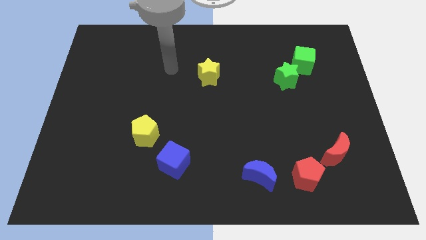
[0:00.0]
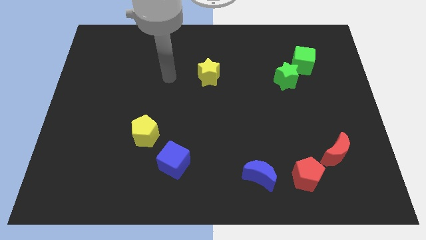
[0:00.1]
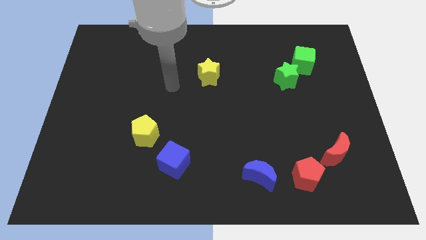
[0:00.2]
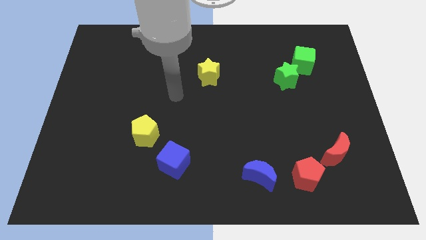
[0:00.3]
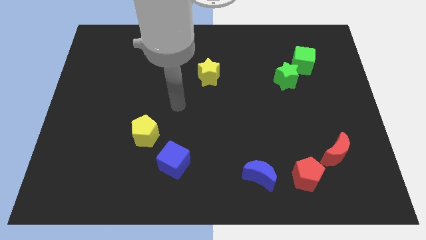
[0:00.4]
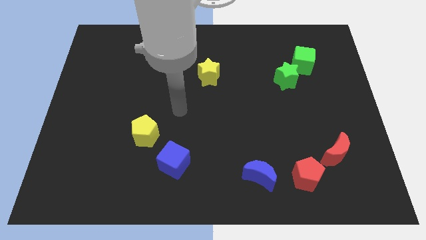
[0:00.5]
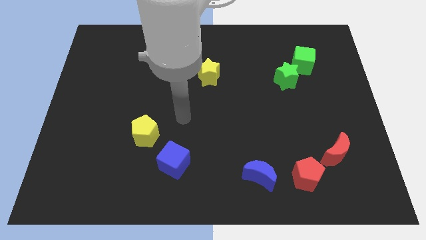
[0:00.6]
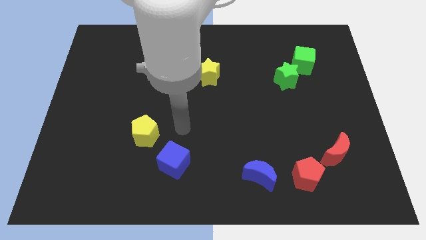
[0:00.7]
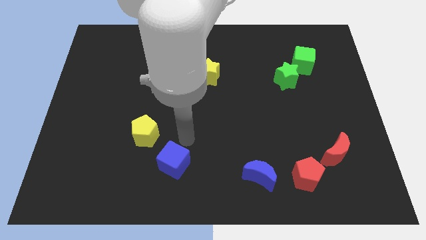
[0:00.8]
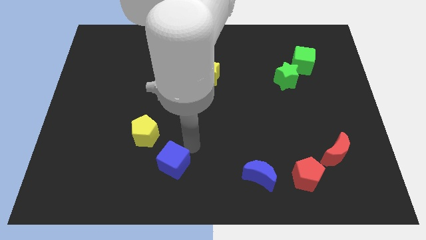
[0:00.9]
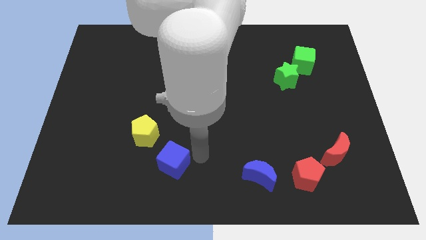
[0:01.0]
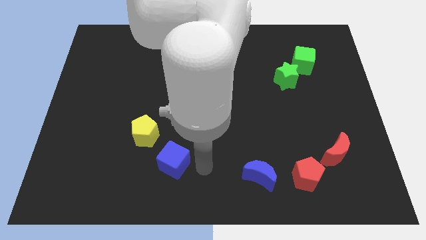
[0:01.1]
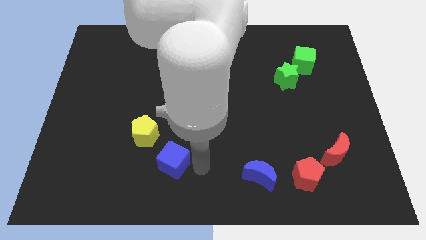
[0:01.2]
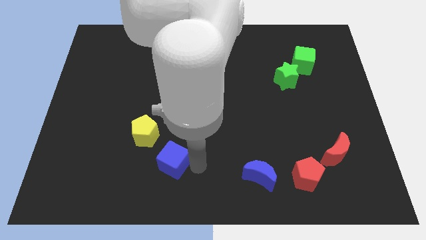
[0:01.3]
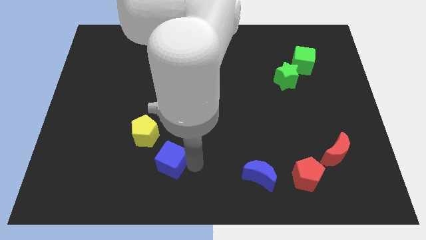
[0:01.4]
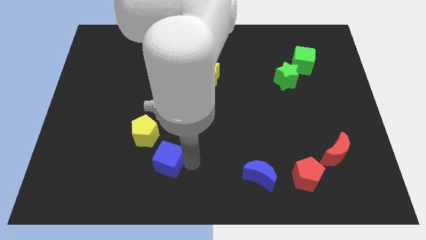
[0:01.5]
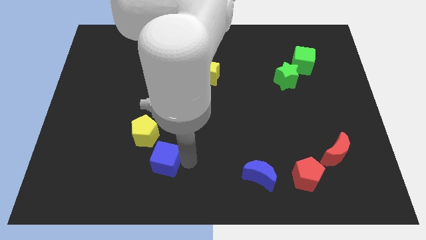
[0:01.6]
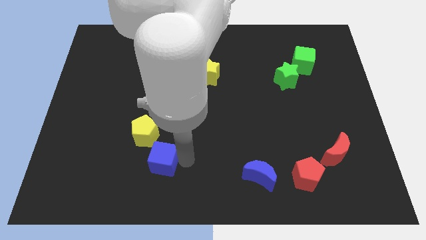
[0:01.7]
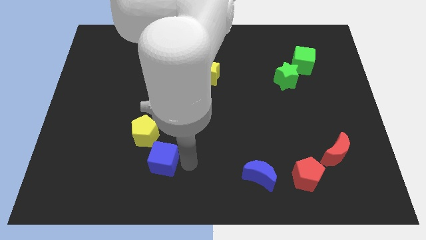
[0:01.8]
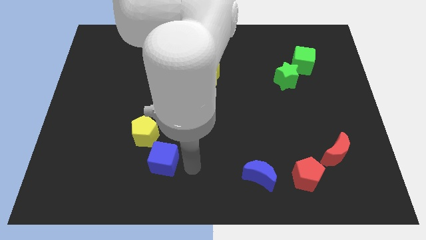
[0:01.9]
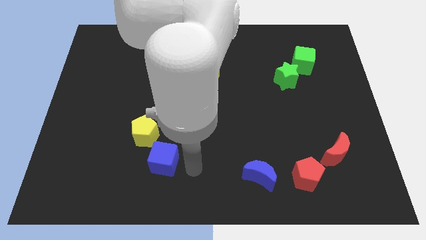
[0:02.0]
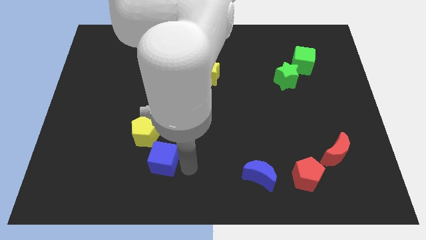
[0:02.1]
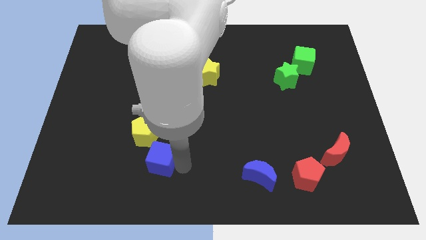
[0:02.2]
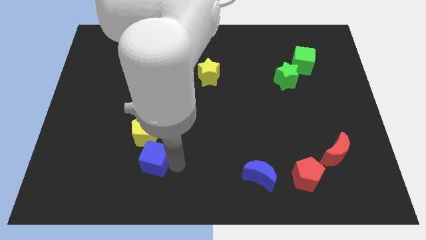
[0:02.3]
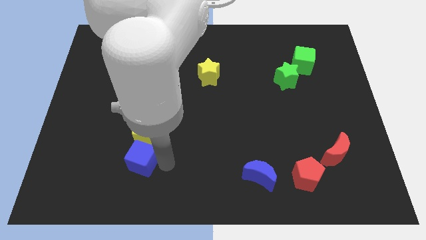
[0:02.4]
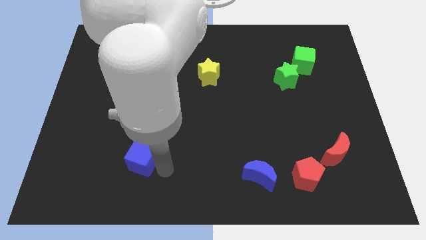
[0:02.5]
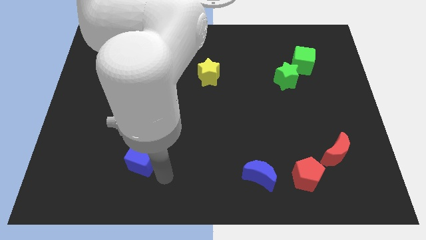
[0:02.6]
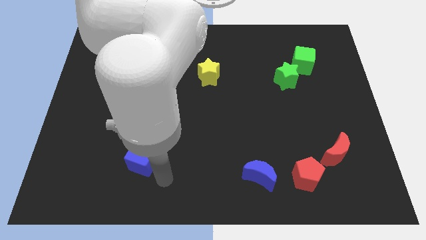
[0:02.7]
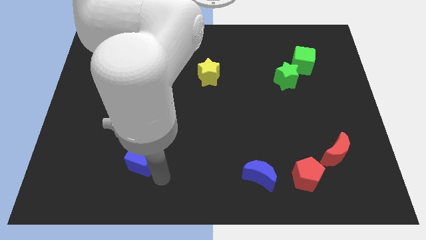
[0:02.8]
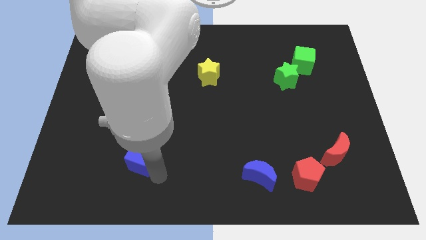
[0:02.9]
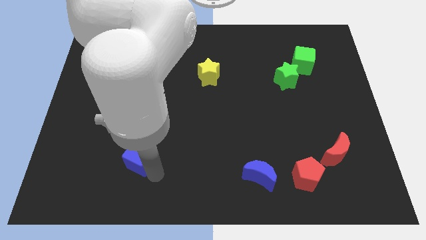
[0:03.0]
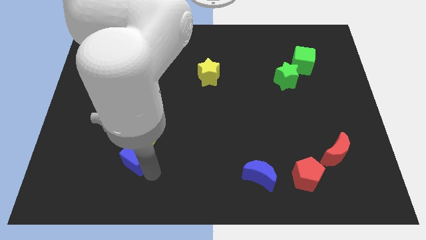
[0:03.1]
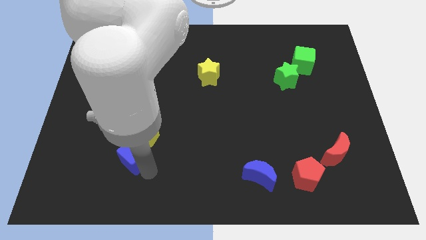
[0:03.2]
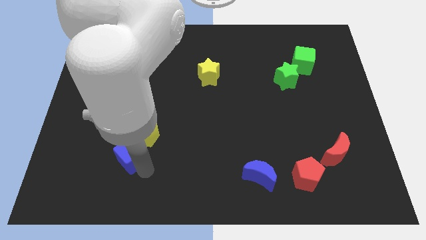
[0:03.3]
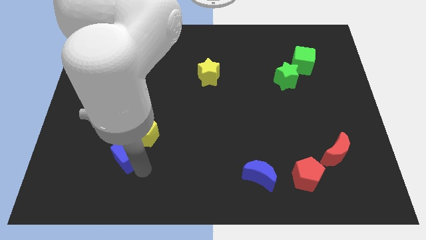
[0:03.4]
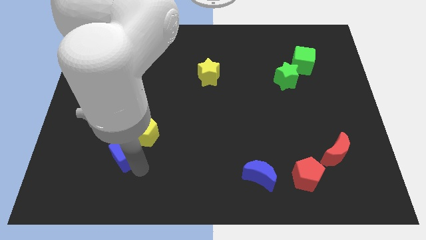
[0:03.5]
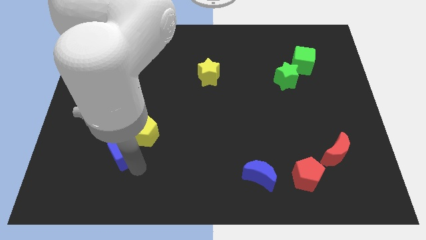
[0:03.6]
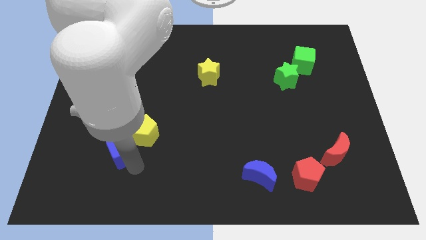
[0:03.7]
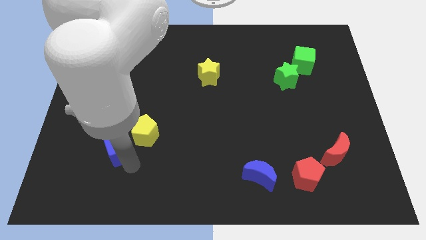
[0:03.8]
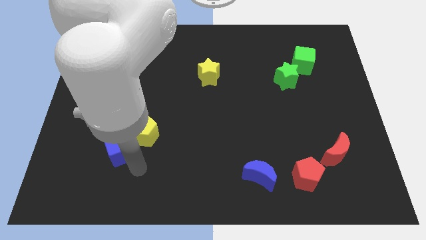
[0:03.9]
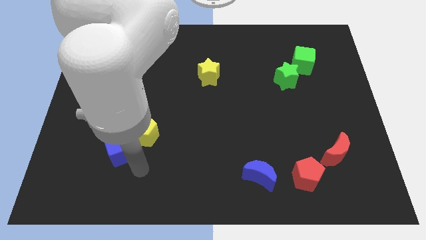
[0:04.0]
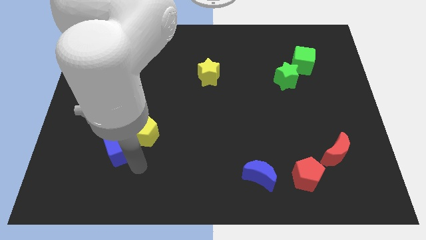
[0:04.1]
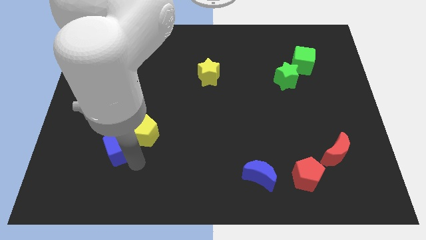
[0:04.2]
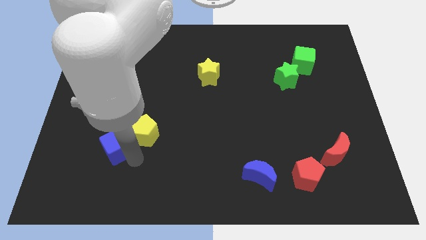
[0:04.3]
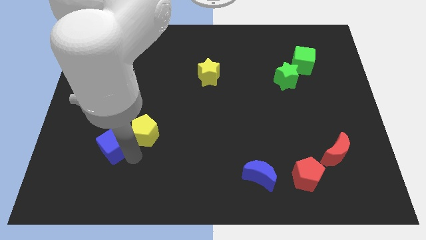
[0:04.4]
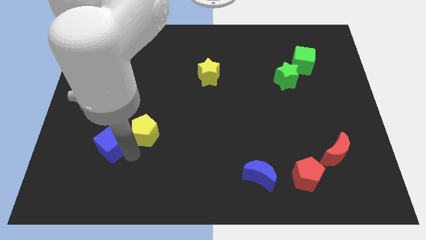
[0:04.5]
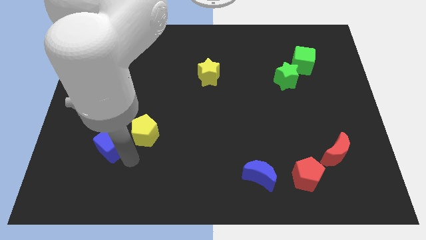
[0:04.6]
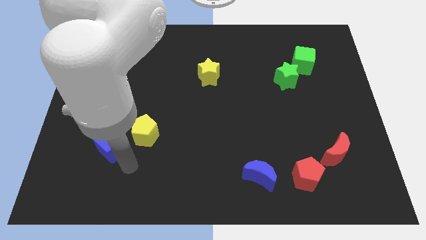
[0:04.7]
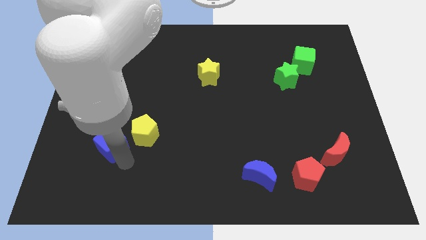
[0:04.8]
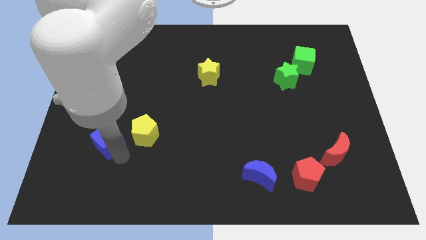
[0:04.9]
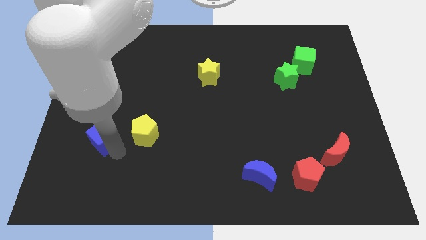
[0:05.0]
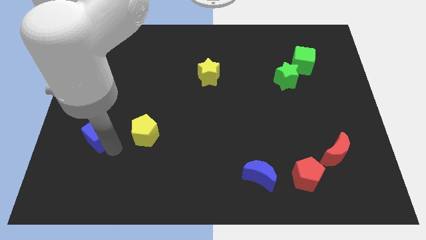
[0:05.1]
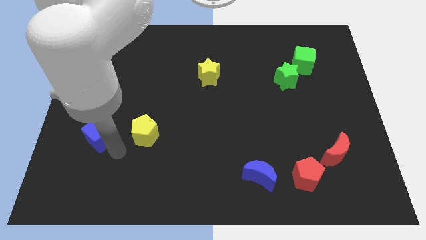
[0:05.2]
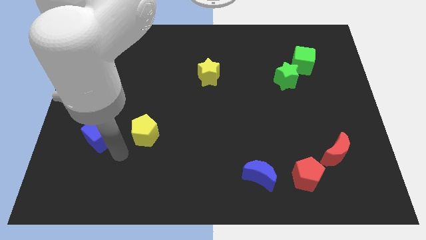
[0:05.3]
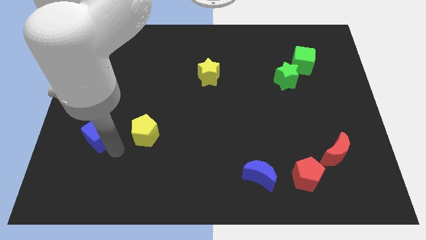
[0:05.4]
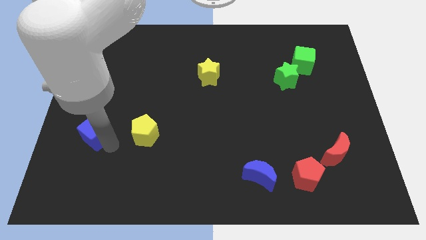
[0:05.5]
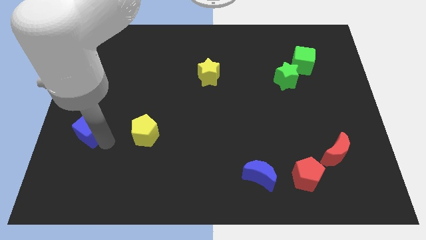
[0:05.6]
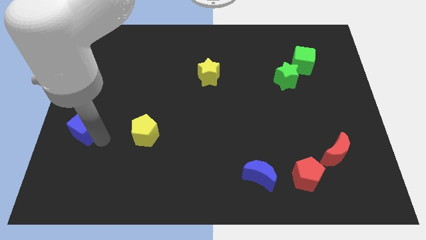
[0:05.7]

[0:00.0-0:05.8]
push the blue cube to the center left
